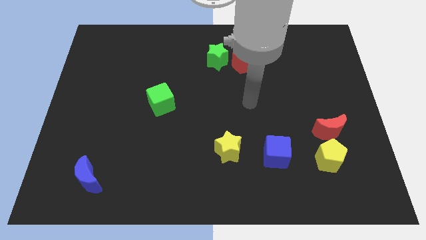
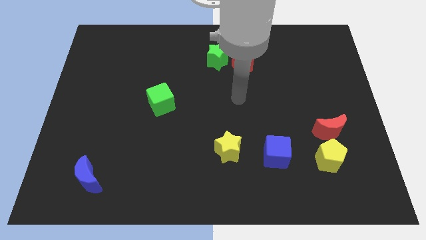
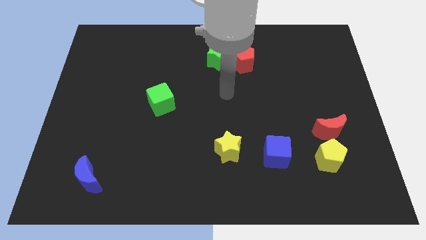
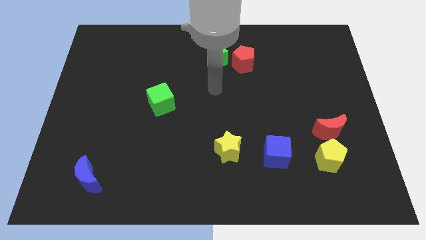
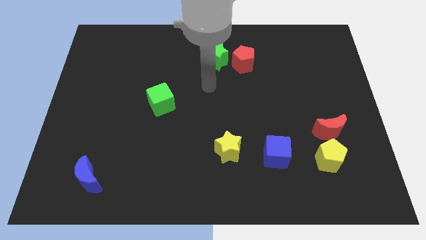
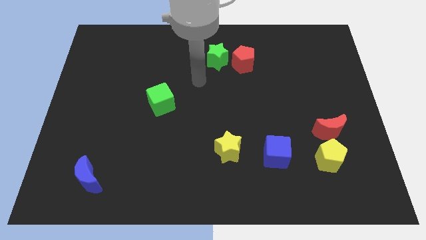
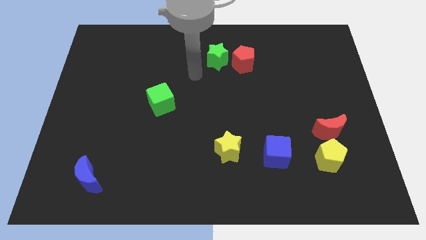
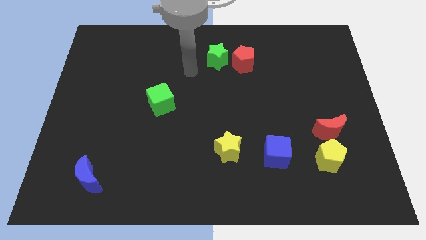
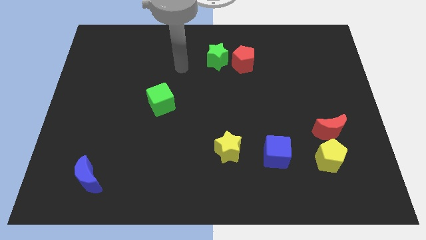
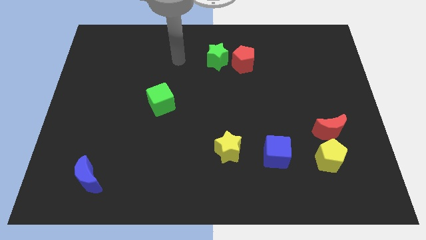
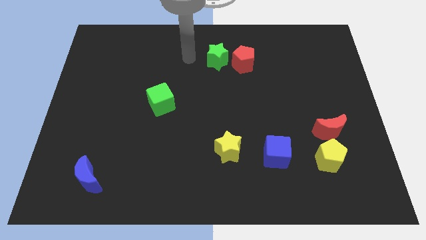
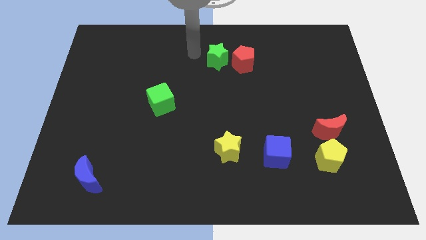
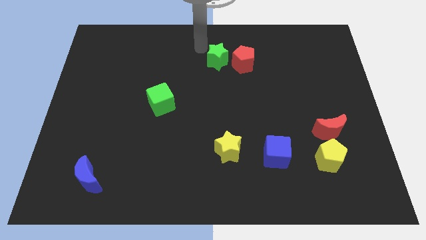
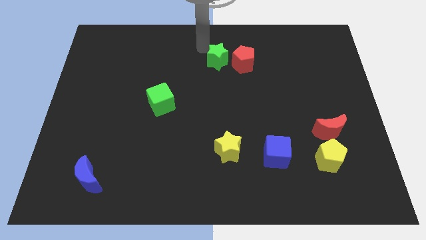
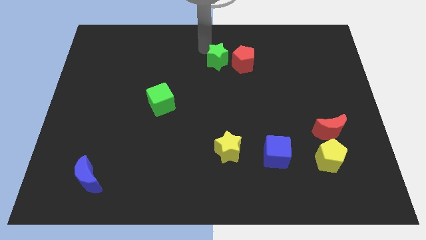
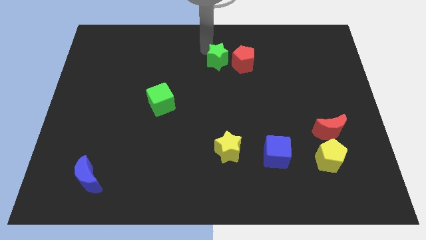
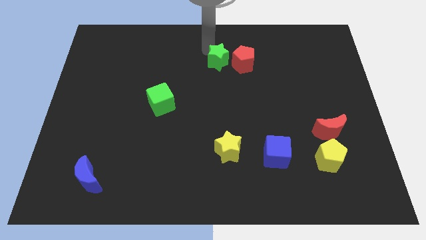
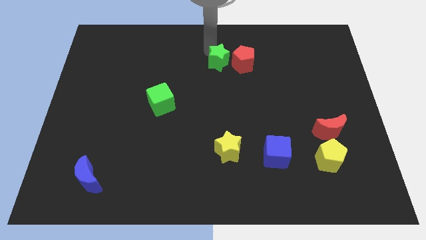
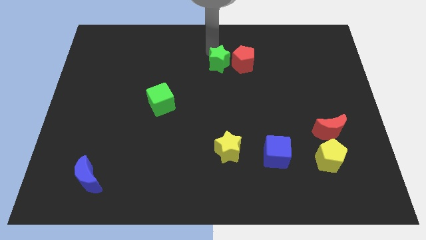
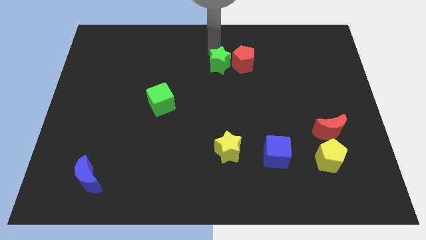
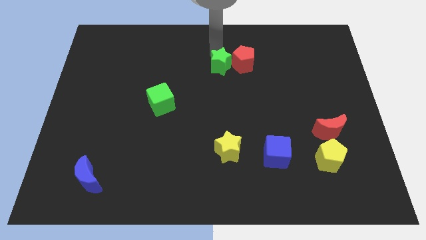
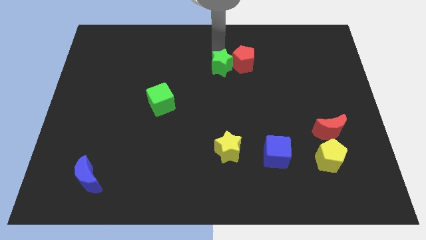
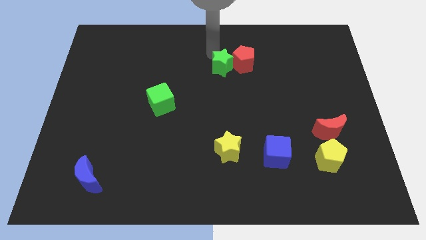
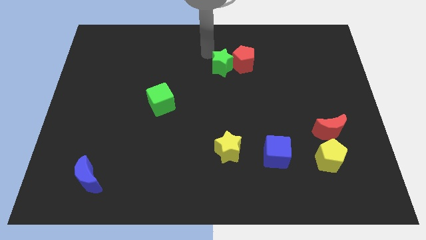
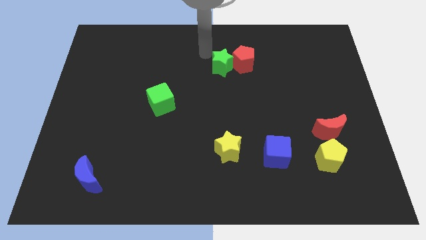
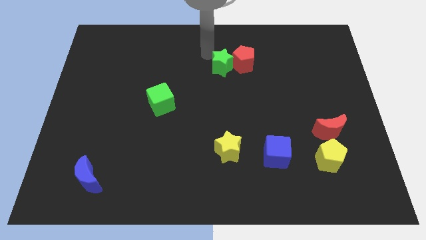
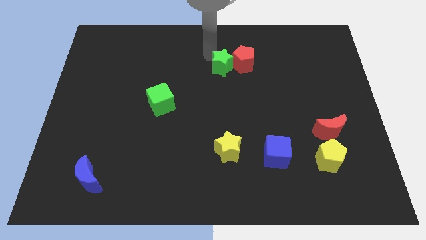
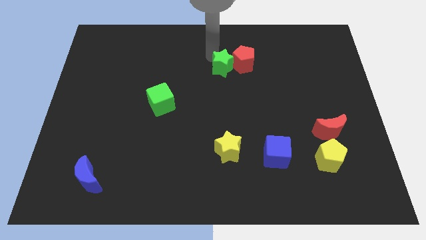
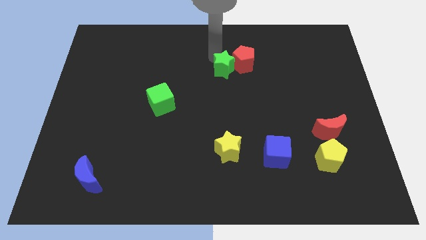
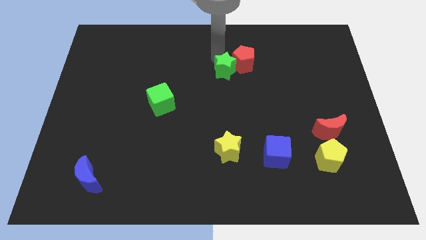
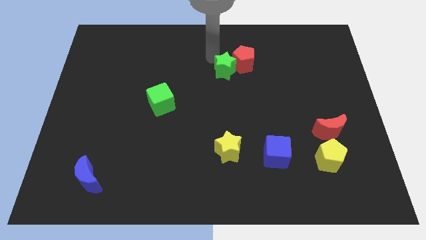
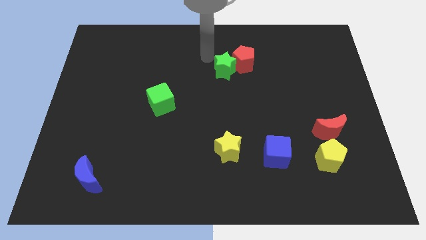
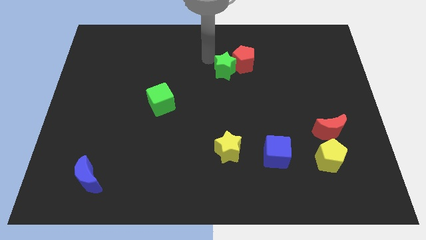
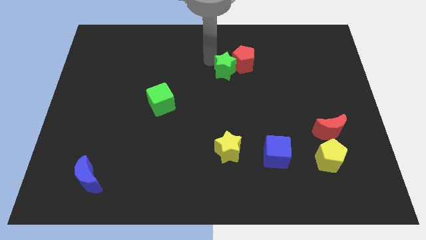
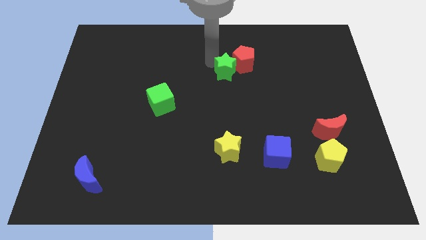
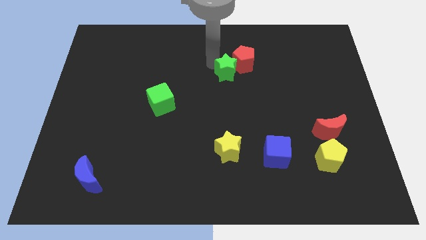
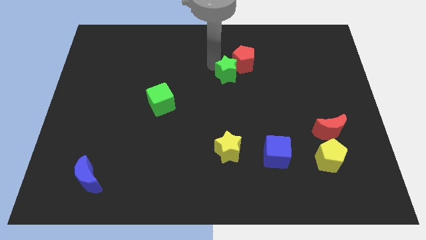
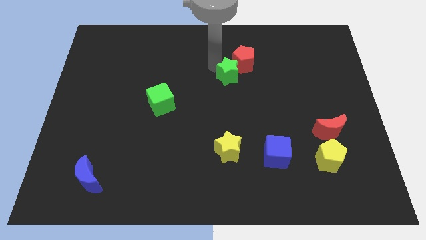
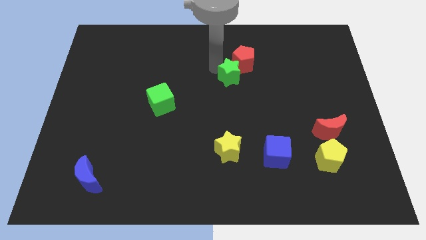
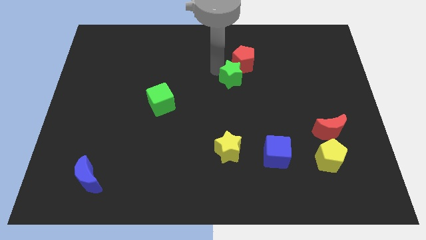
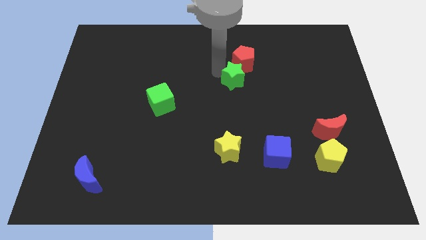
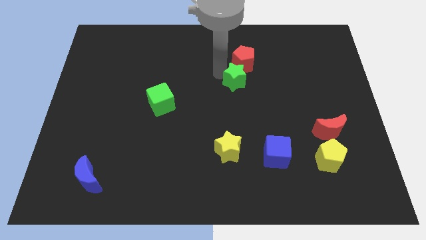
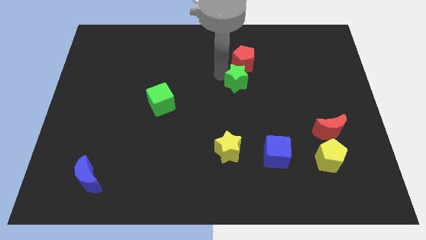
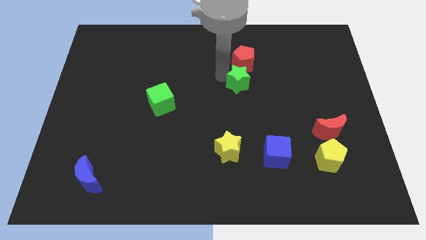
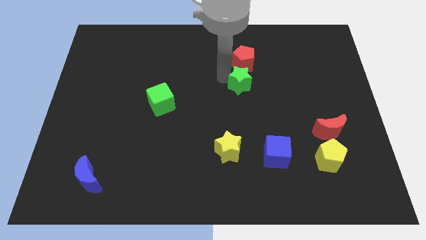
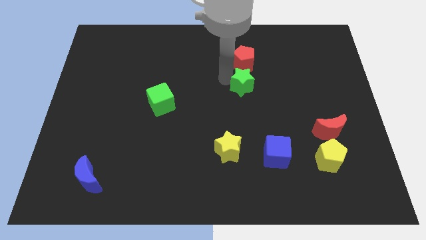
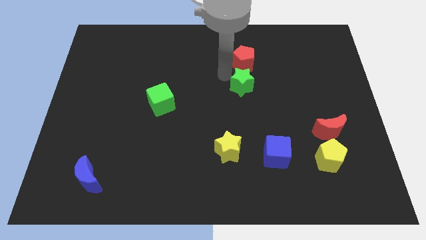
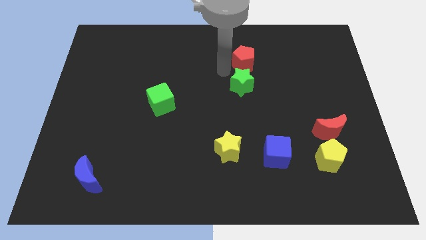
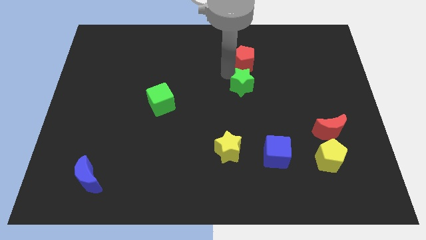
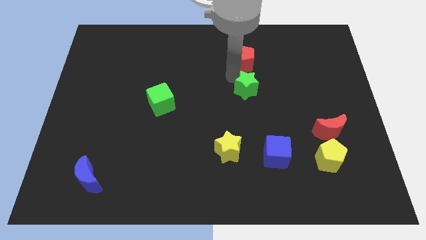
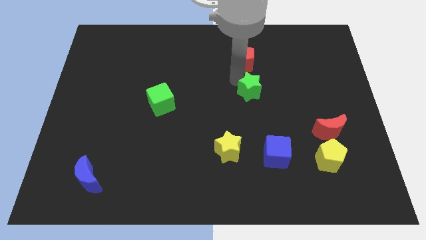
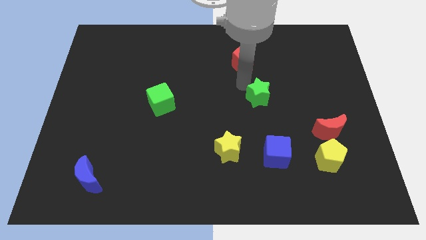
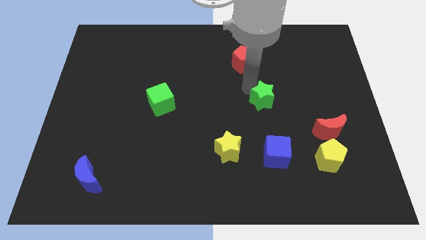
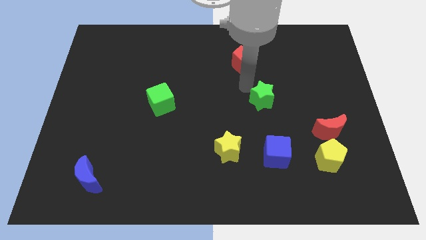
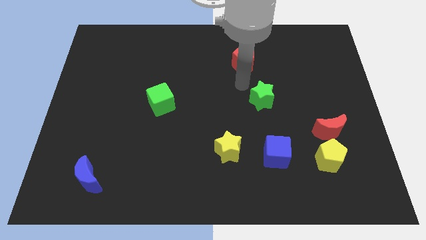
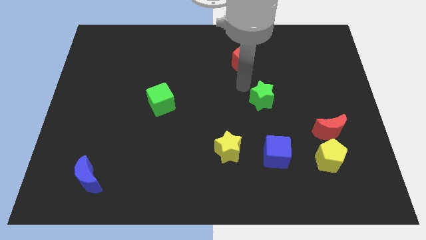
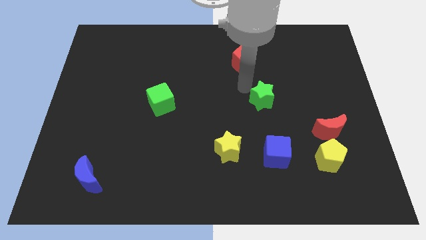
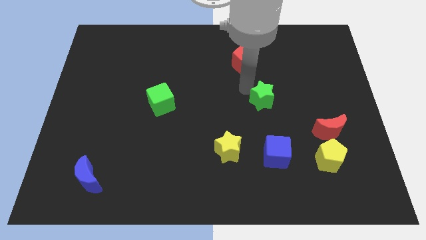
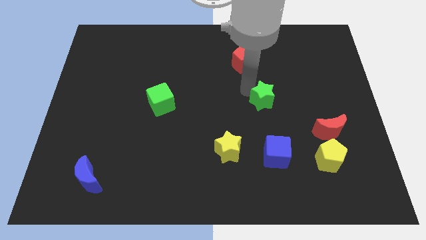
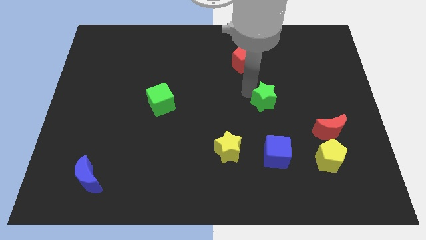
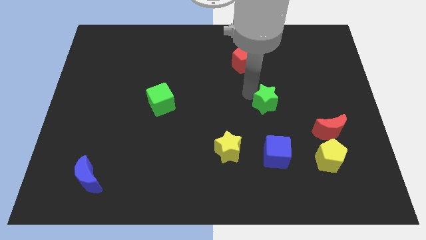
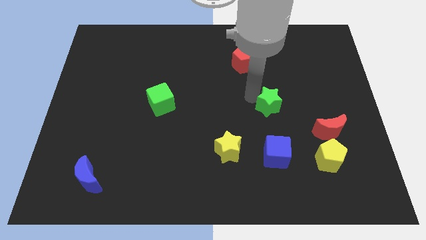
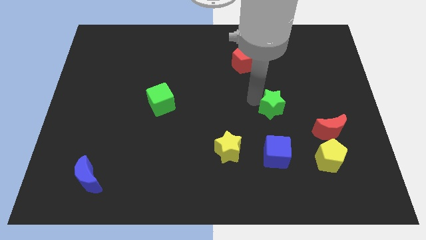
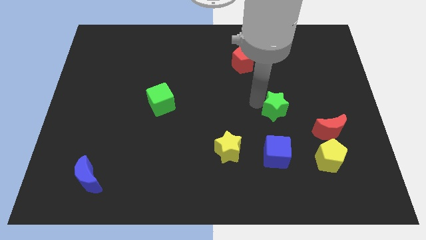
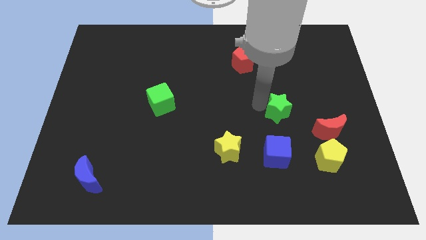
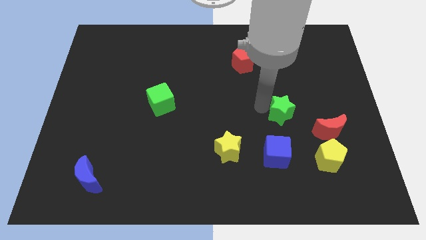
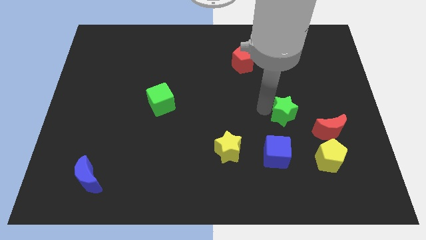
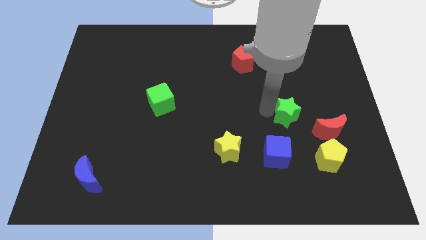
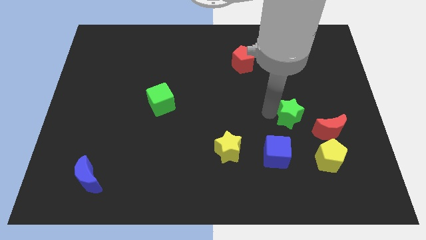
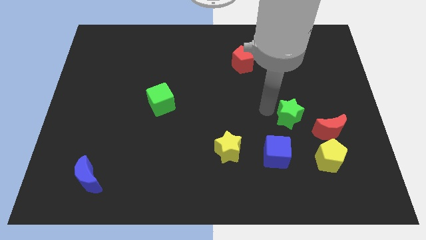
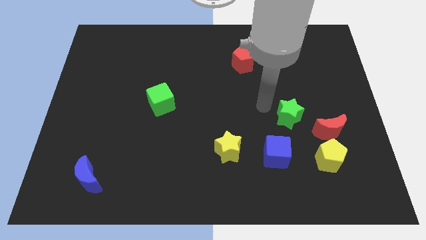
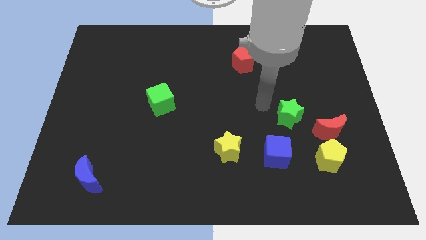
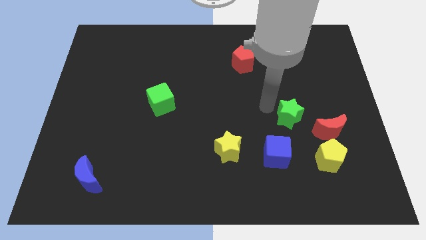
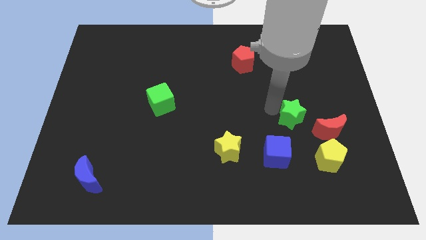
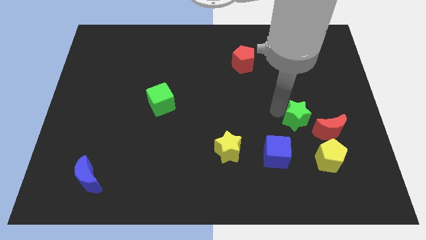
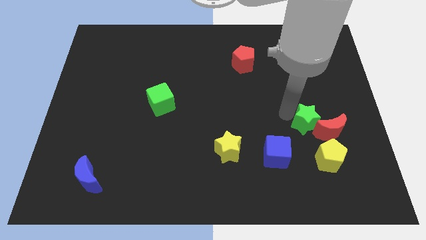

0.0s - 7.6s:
push the green star towards the red moon
